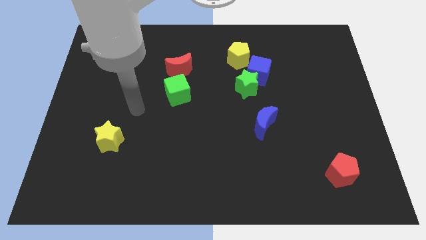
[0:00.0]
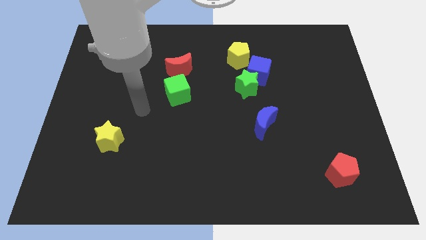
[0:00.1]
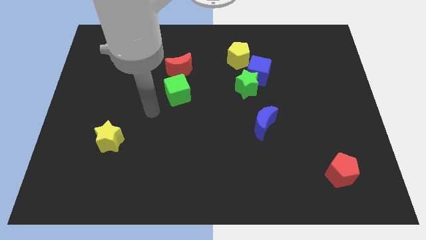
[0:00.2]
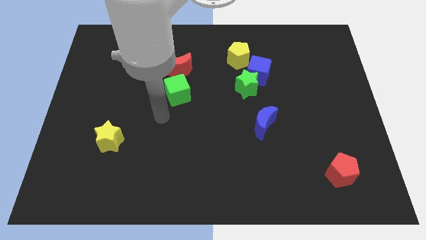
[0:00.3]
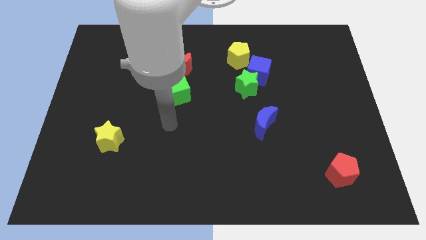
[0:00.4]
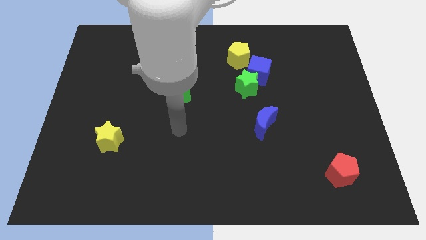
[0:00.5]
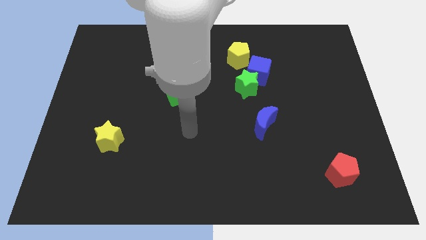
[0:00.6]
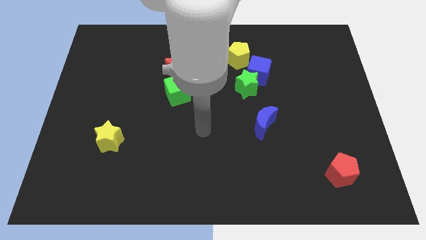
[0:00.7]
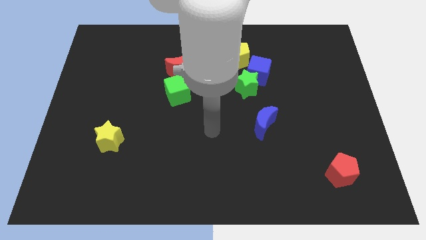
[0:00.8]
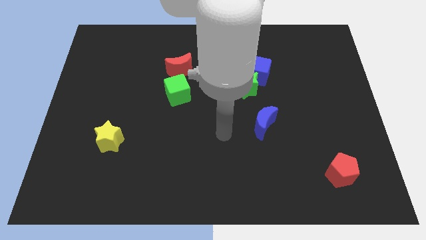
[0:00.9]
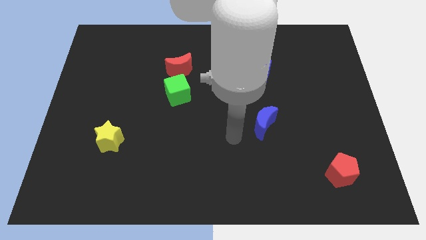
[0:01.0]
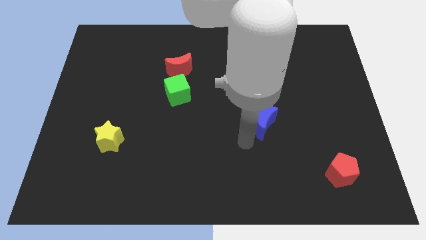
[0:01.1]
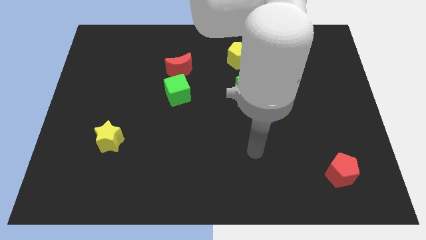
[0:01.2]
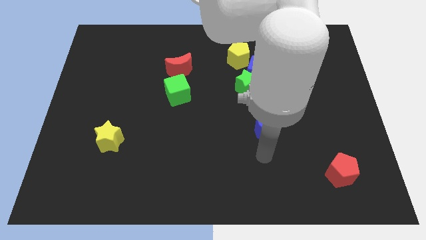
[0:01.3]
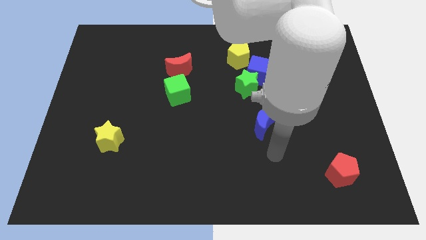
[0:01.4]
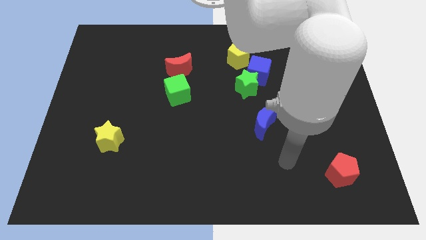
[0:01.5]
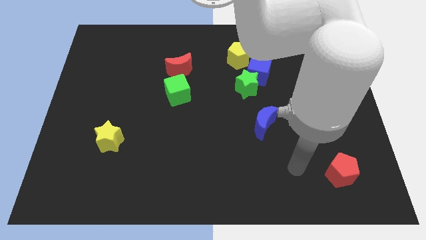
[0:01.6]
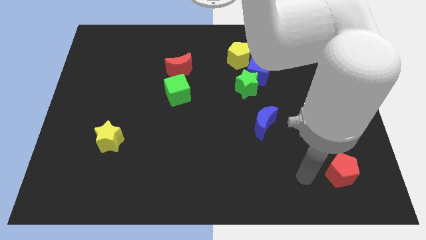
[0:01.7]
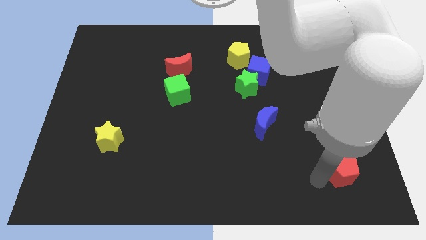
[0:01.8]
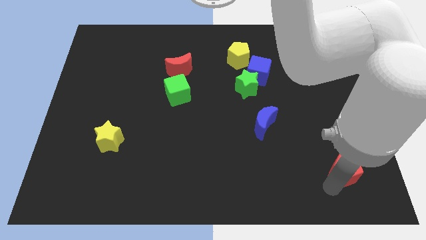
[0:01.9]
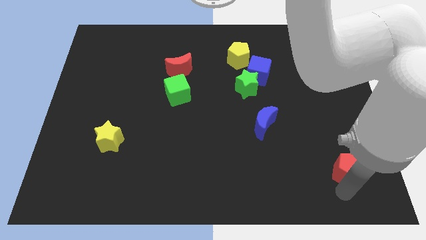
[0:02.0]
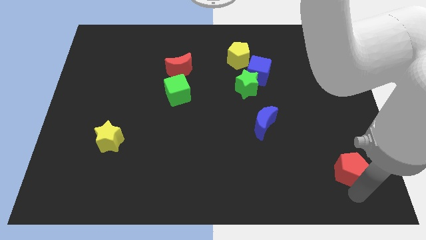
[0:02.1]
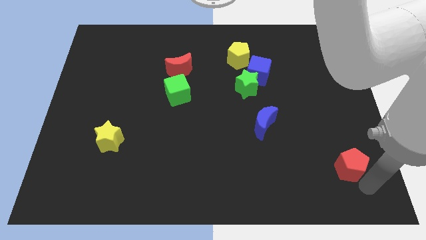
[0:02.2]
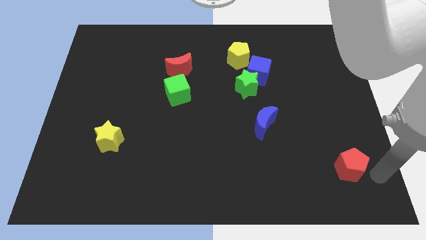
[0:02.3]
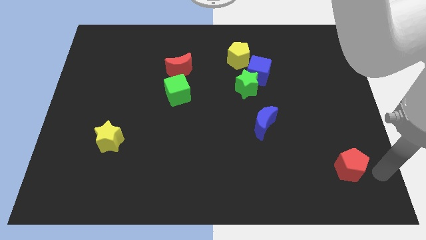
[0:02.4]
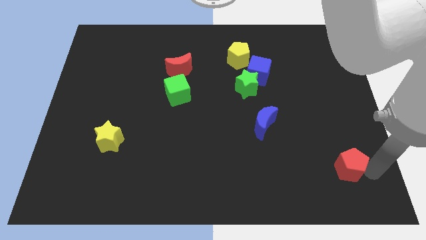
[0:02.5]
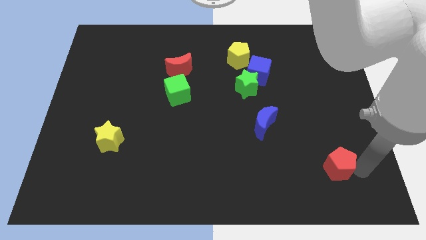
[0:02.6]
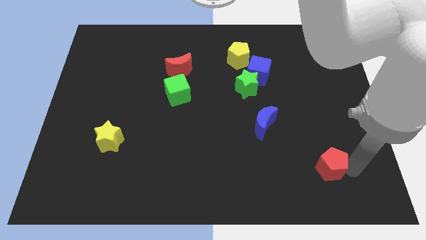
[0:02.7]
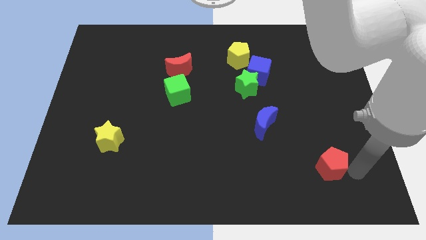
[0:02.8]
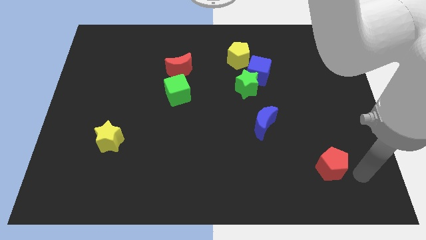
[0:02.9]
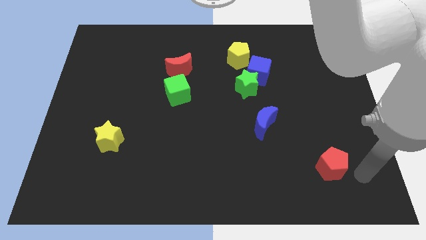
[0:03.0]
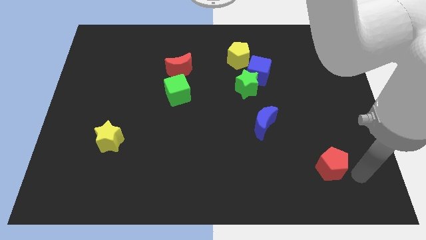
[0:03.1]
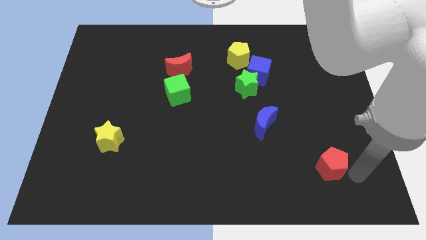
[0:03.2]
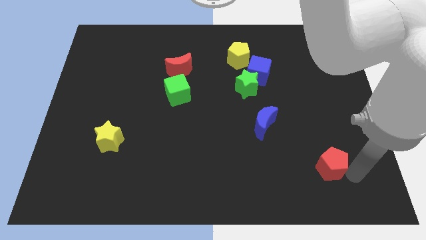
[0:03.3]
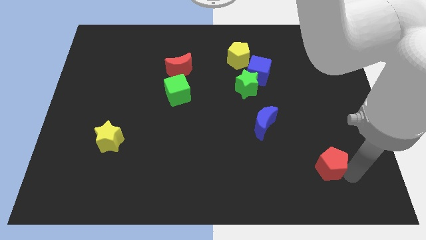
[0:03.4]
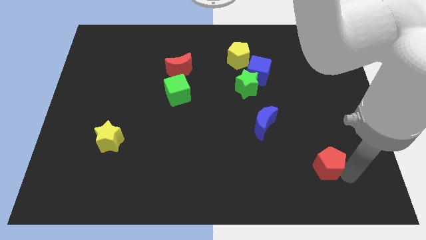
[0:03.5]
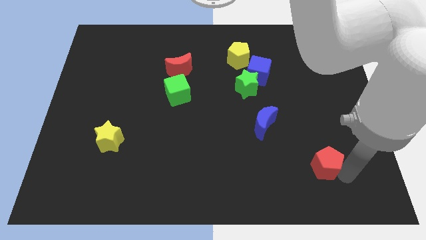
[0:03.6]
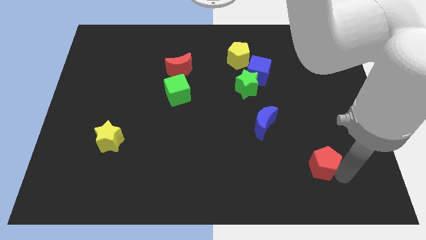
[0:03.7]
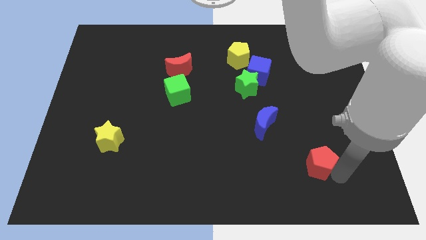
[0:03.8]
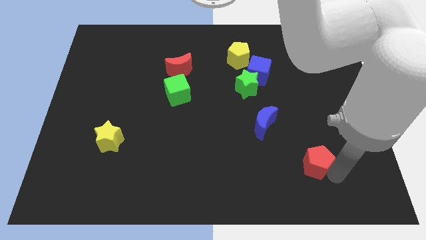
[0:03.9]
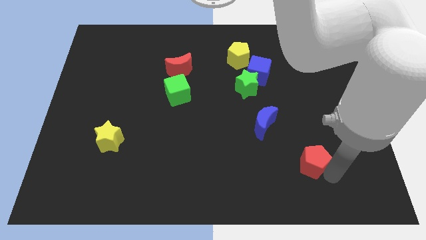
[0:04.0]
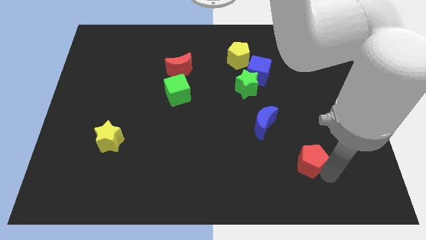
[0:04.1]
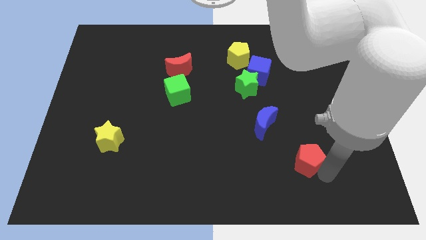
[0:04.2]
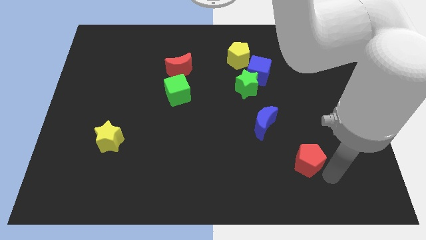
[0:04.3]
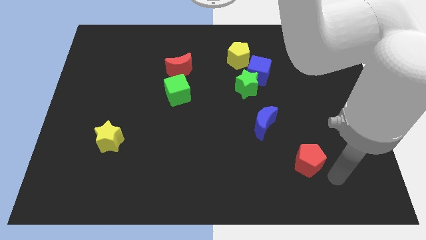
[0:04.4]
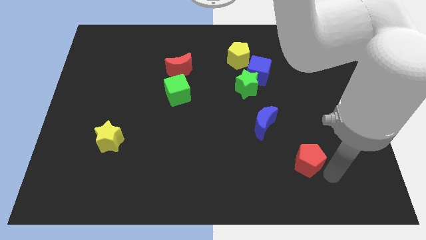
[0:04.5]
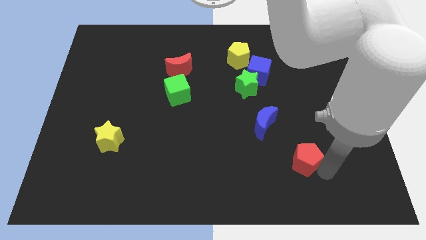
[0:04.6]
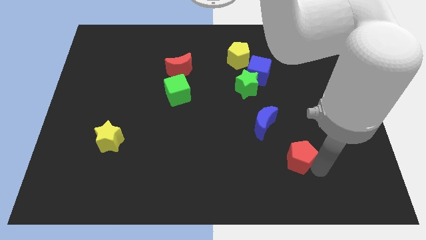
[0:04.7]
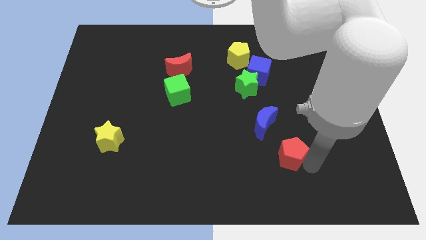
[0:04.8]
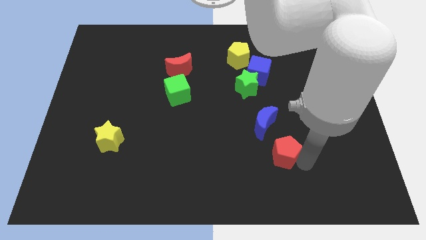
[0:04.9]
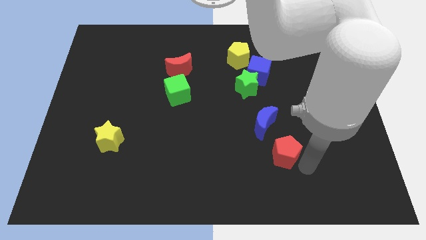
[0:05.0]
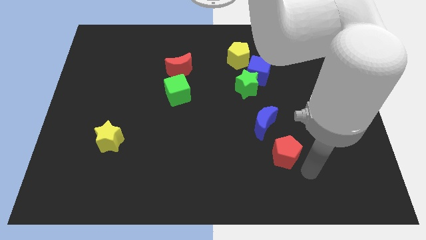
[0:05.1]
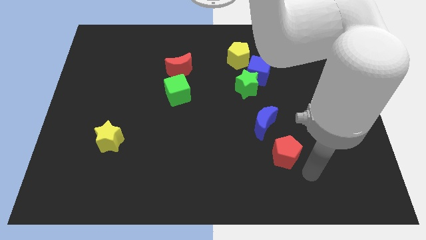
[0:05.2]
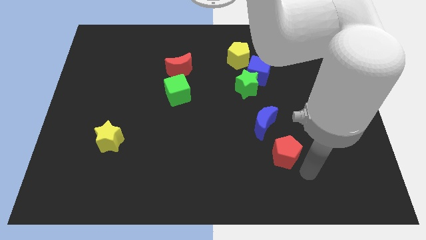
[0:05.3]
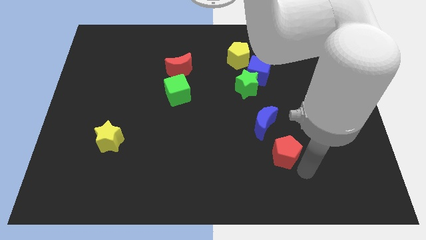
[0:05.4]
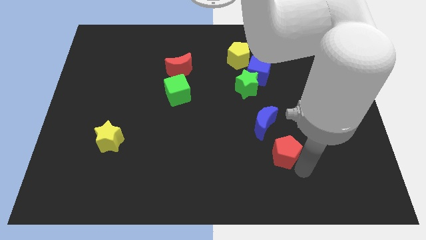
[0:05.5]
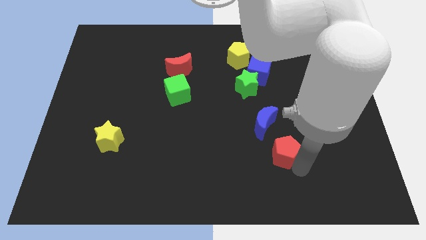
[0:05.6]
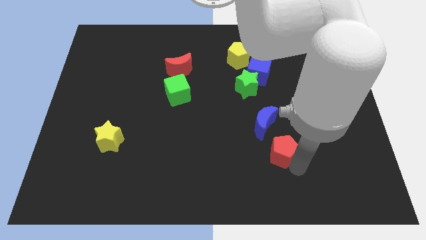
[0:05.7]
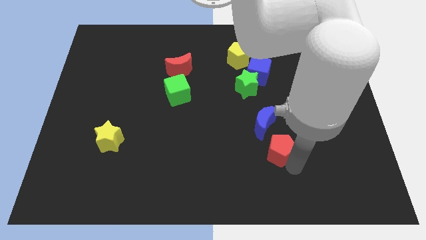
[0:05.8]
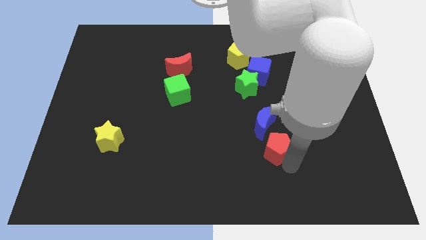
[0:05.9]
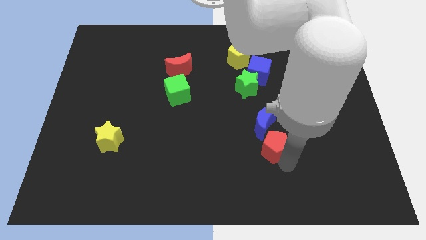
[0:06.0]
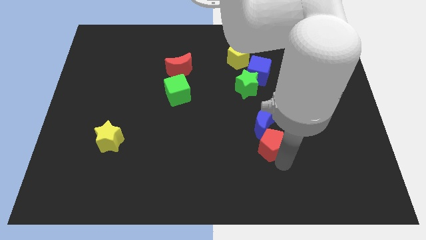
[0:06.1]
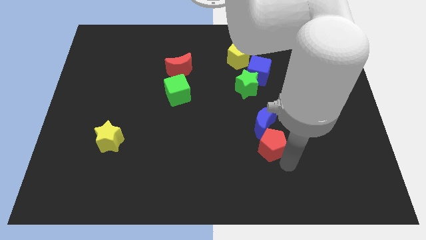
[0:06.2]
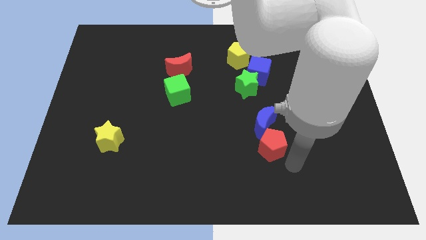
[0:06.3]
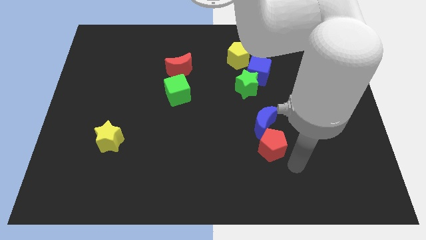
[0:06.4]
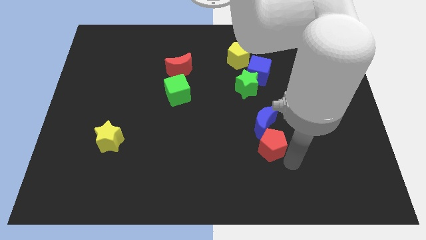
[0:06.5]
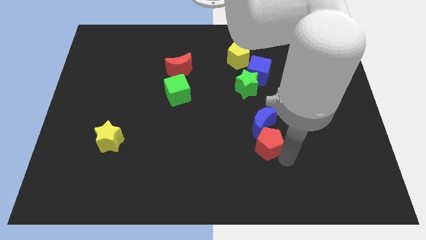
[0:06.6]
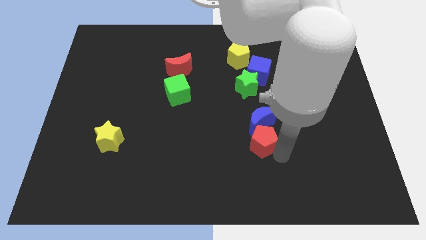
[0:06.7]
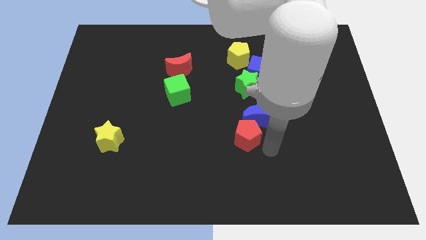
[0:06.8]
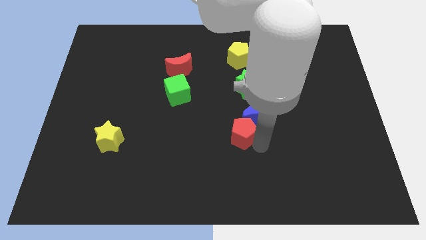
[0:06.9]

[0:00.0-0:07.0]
slide the red pentagon to the middle
